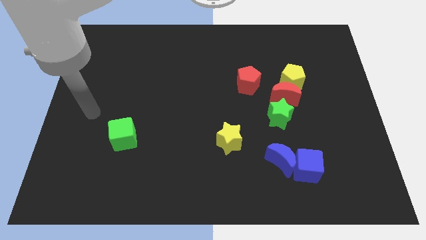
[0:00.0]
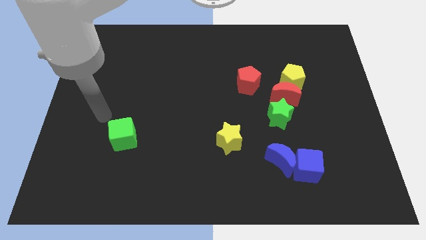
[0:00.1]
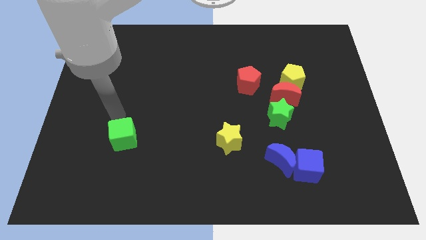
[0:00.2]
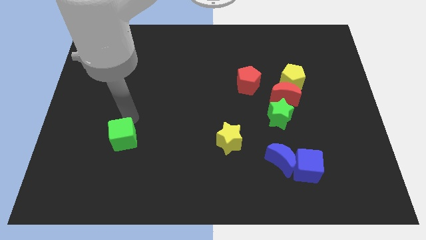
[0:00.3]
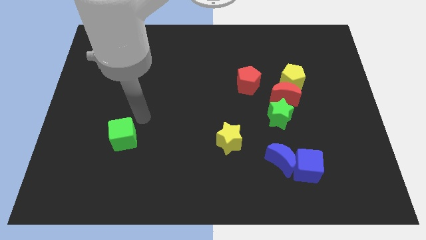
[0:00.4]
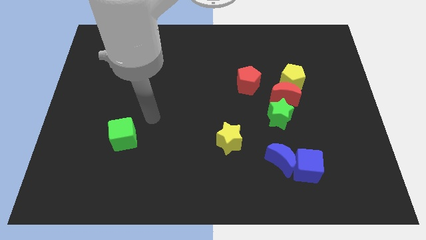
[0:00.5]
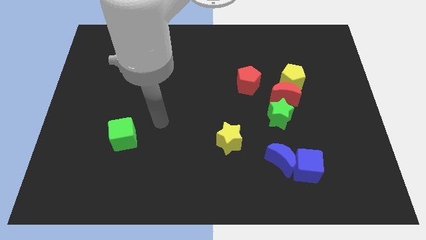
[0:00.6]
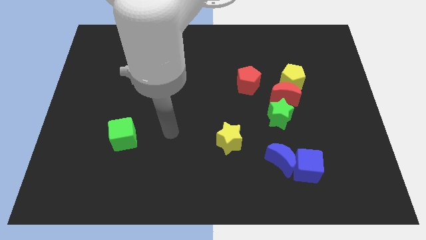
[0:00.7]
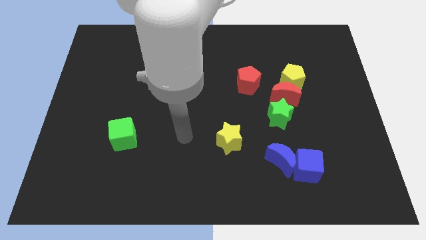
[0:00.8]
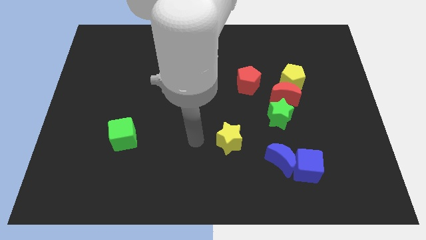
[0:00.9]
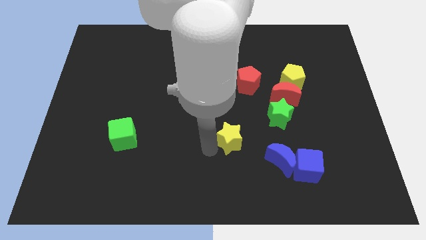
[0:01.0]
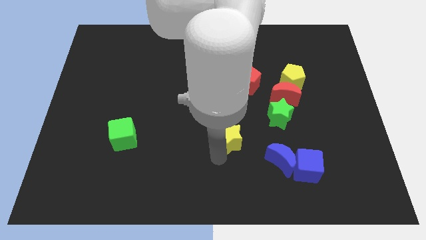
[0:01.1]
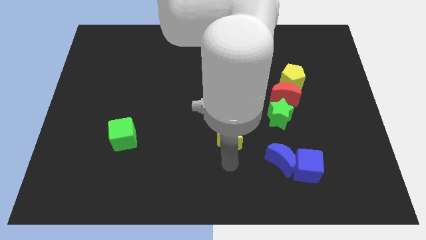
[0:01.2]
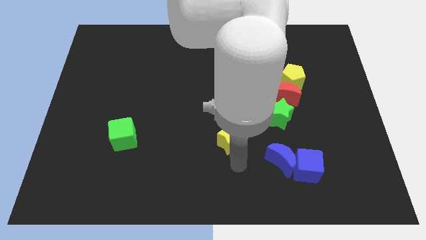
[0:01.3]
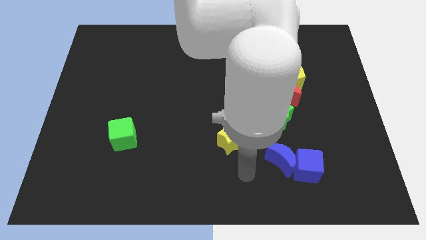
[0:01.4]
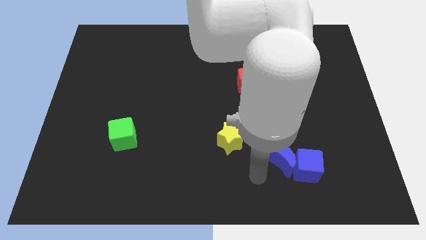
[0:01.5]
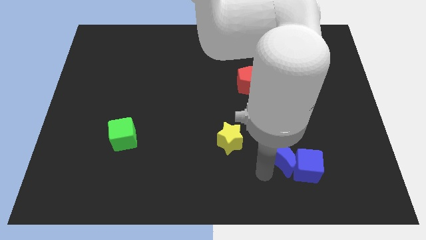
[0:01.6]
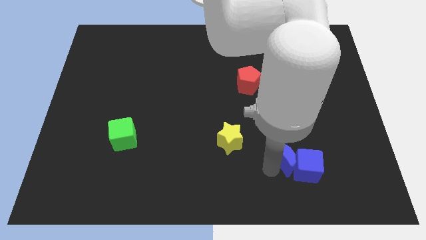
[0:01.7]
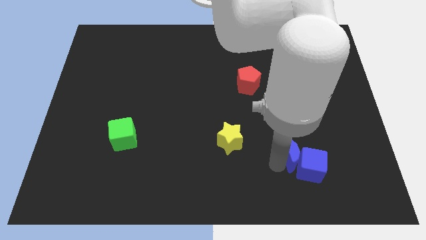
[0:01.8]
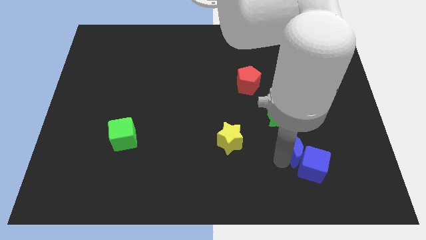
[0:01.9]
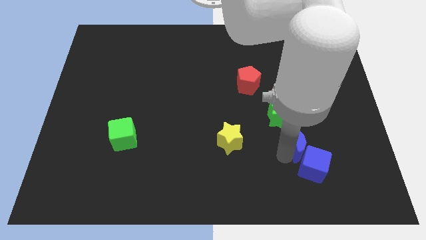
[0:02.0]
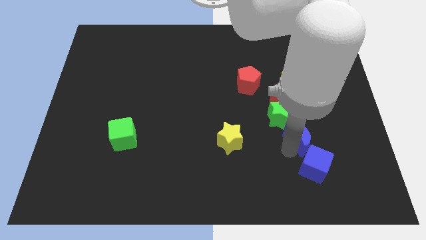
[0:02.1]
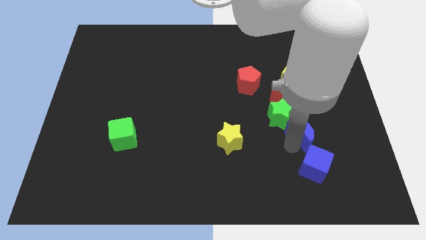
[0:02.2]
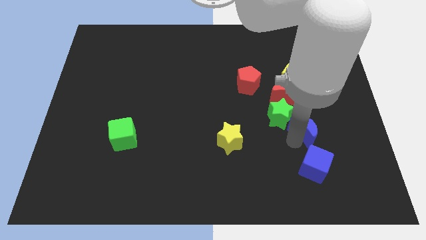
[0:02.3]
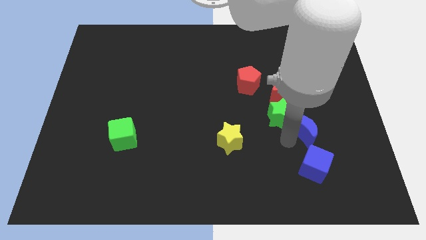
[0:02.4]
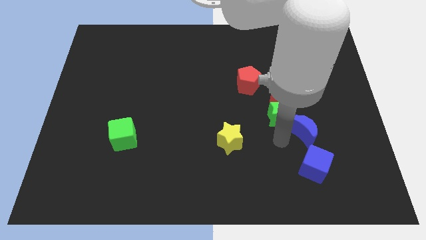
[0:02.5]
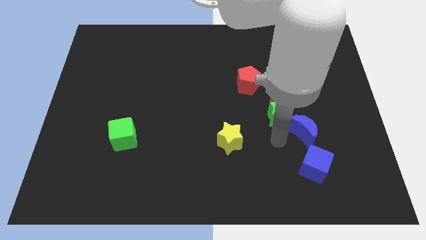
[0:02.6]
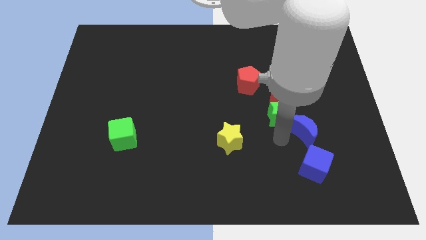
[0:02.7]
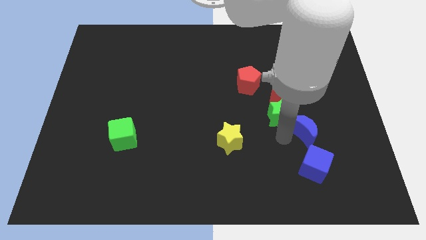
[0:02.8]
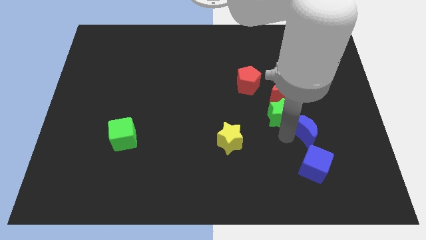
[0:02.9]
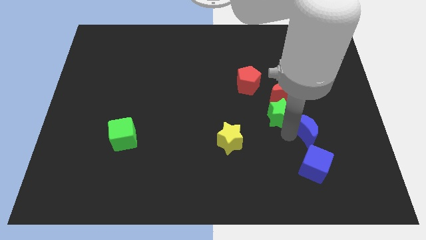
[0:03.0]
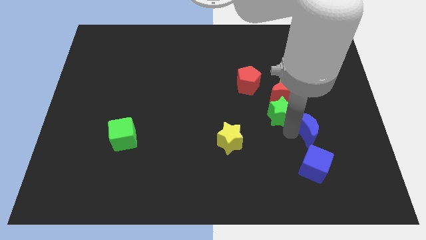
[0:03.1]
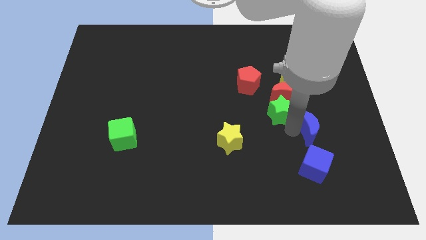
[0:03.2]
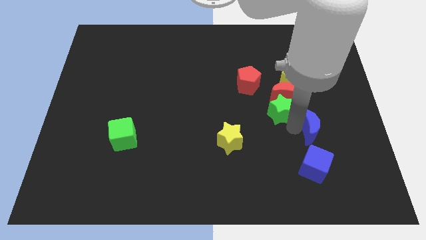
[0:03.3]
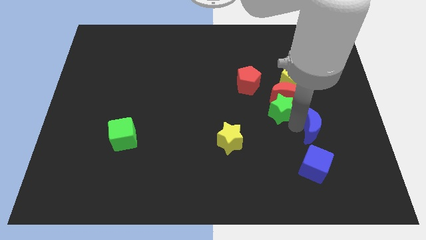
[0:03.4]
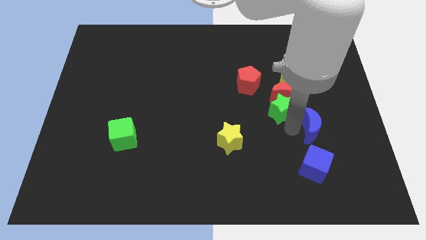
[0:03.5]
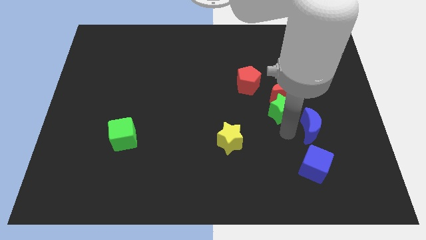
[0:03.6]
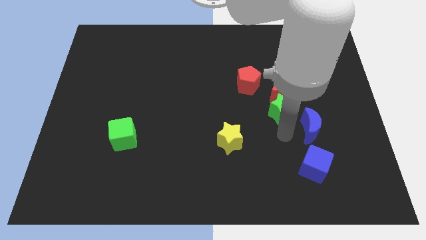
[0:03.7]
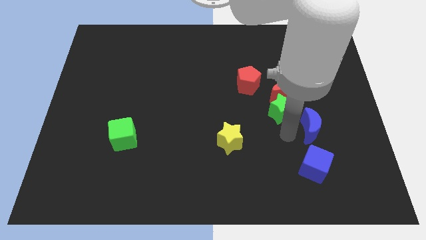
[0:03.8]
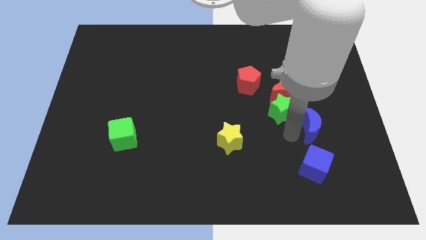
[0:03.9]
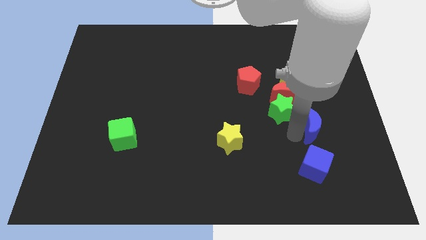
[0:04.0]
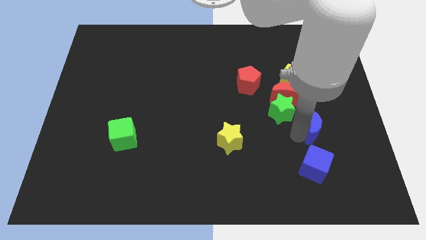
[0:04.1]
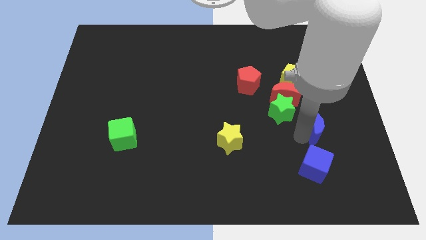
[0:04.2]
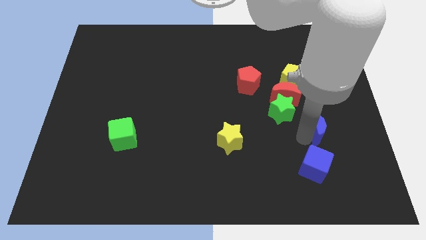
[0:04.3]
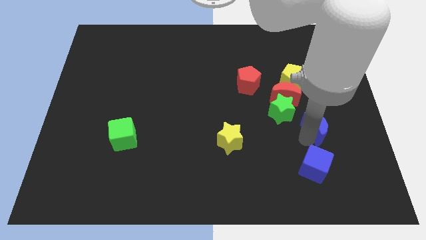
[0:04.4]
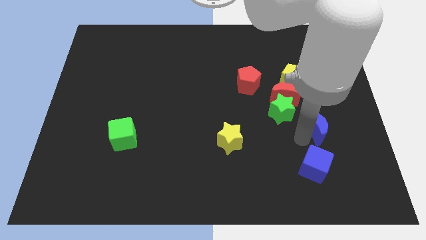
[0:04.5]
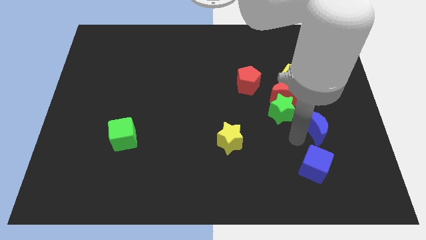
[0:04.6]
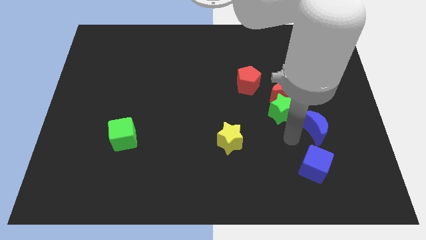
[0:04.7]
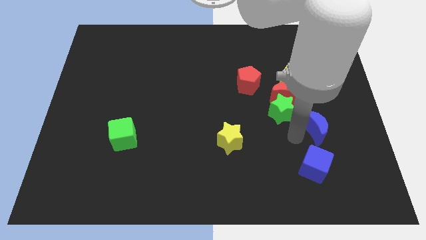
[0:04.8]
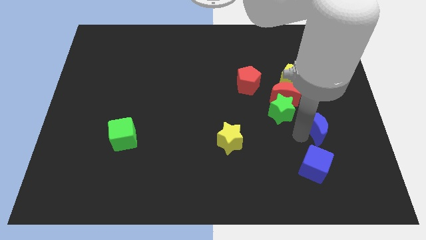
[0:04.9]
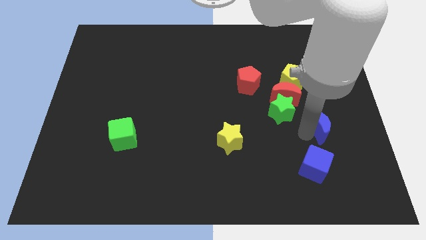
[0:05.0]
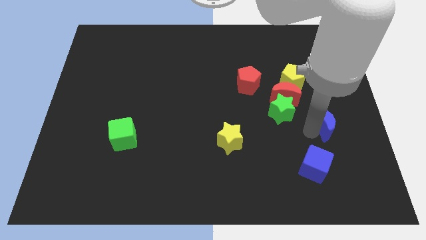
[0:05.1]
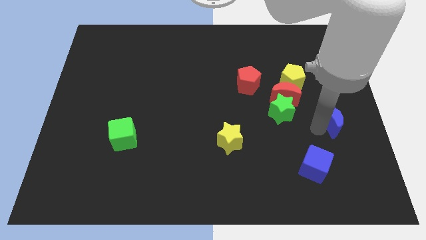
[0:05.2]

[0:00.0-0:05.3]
slide the blue moon to the right side of the board

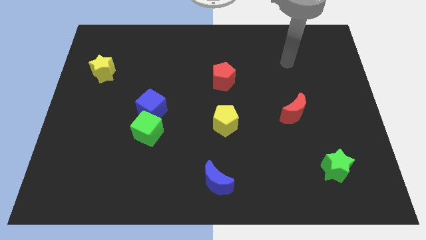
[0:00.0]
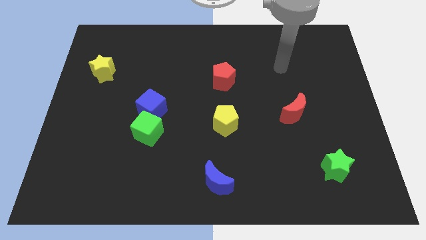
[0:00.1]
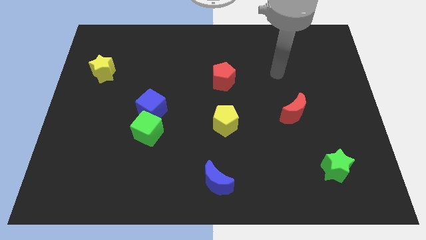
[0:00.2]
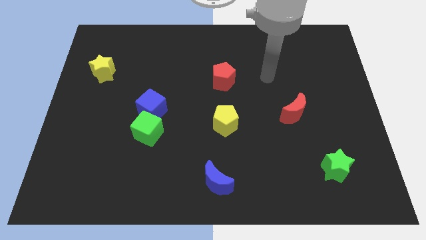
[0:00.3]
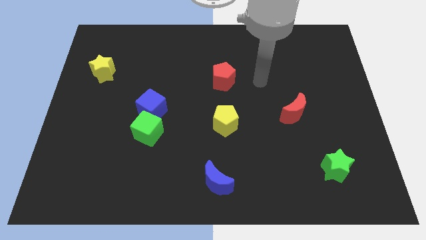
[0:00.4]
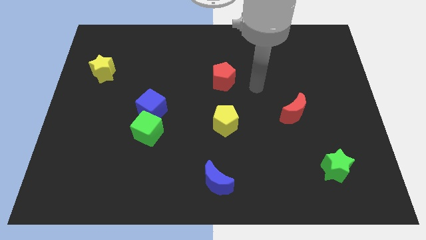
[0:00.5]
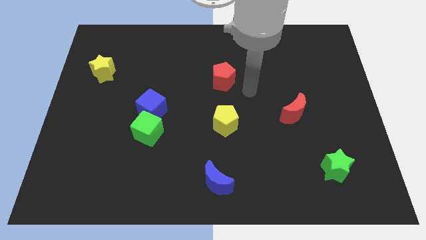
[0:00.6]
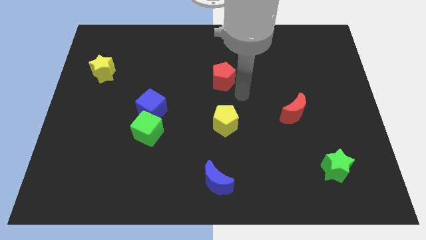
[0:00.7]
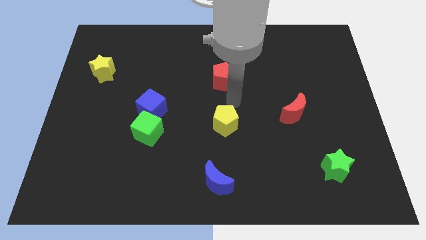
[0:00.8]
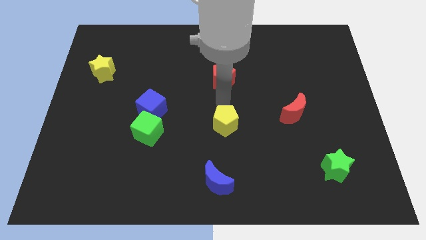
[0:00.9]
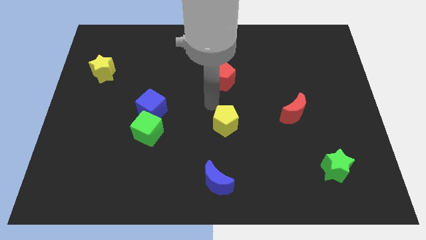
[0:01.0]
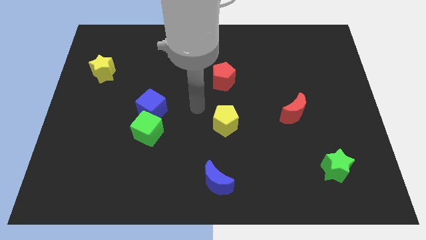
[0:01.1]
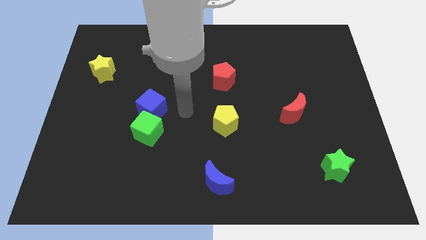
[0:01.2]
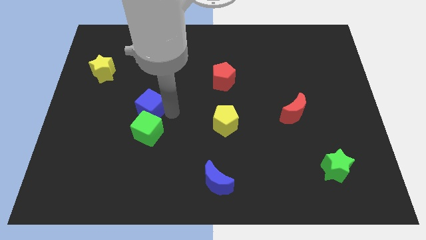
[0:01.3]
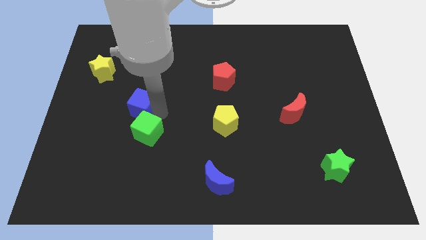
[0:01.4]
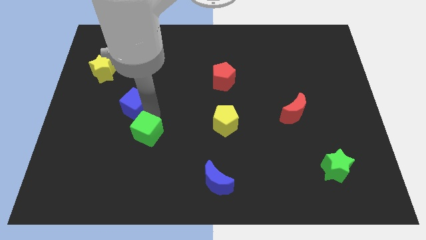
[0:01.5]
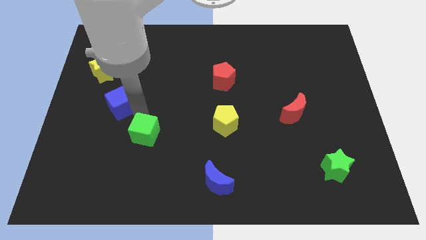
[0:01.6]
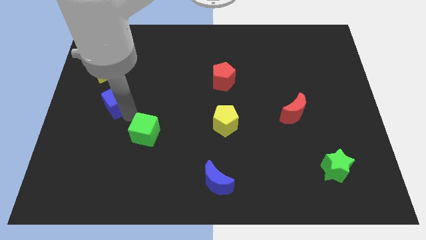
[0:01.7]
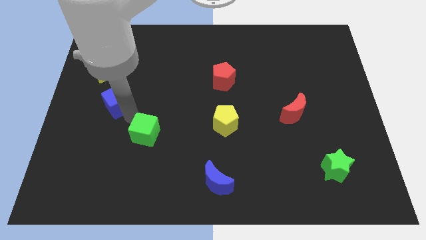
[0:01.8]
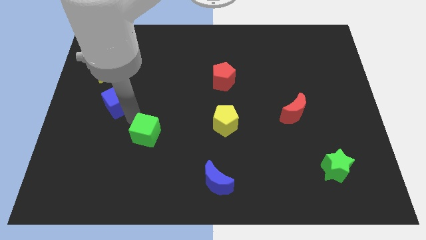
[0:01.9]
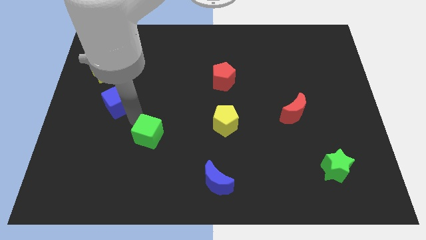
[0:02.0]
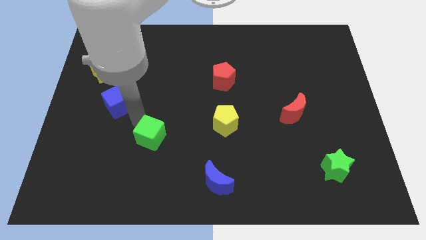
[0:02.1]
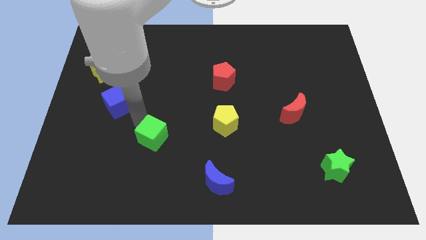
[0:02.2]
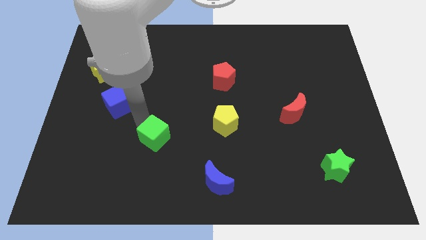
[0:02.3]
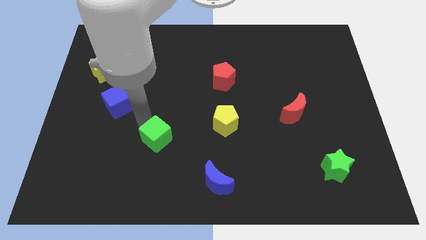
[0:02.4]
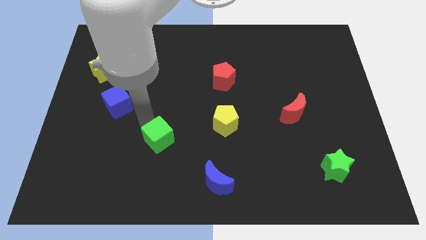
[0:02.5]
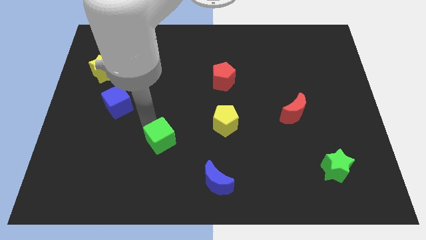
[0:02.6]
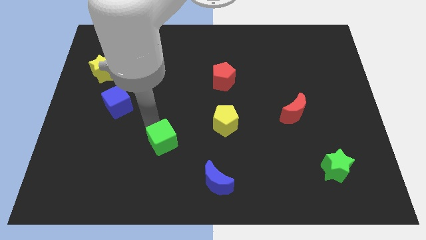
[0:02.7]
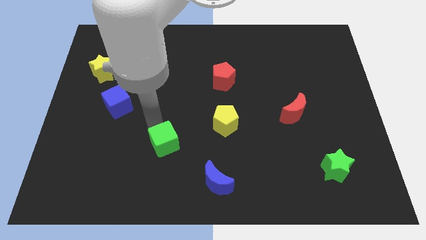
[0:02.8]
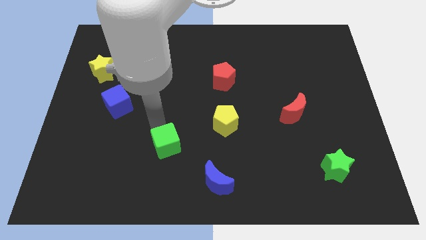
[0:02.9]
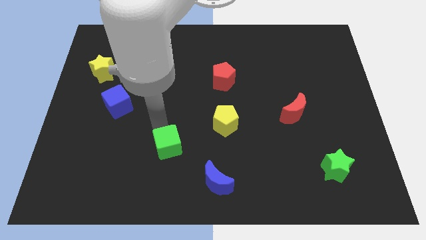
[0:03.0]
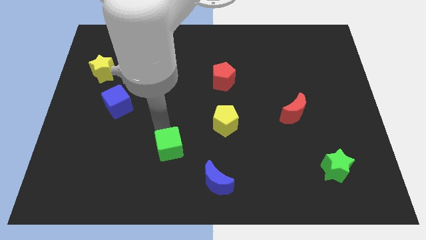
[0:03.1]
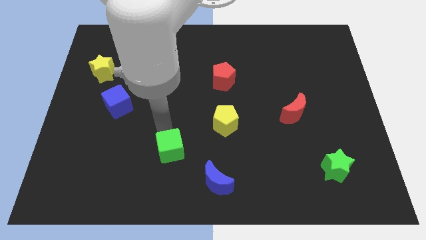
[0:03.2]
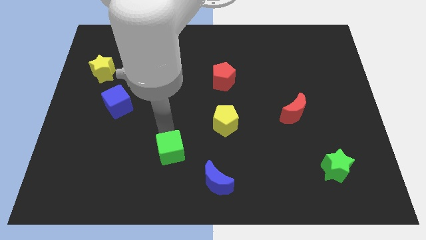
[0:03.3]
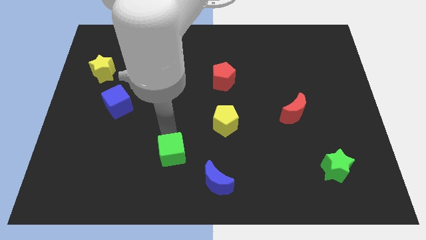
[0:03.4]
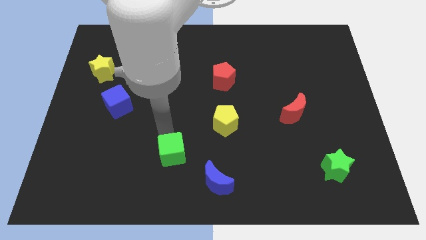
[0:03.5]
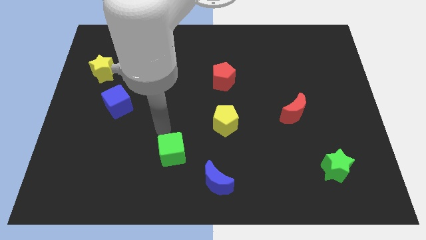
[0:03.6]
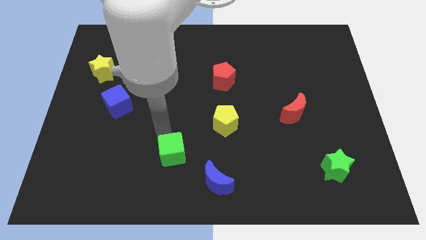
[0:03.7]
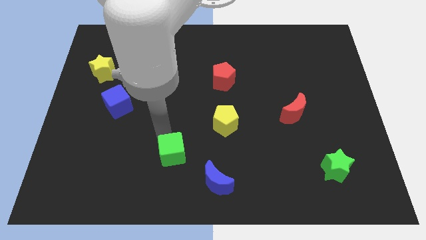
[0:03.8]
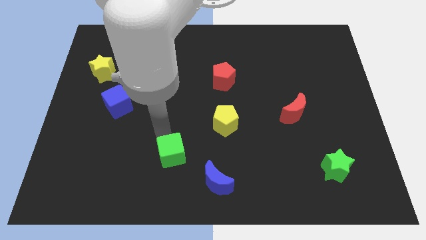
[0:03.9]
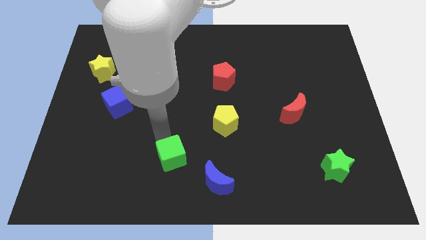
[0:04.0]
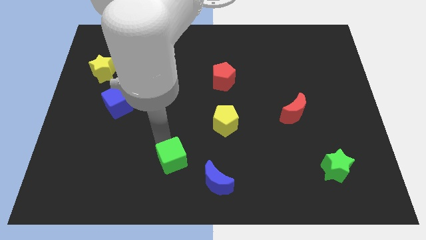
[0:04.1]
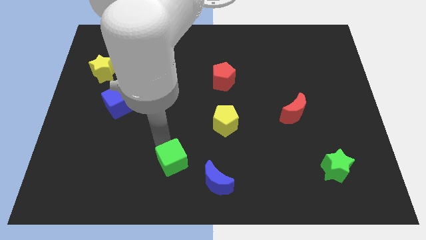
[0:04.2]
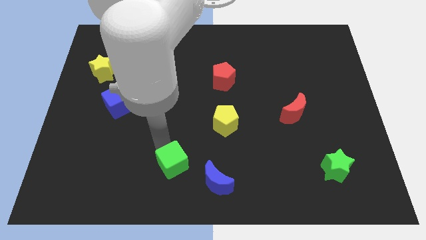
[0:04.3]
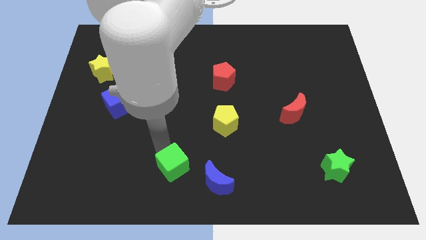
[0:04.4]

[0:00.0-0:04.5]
put the green cube to the bottom side
